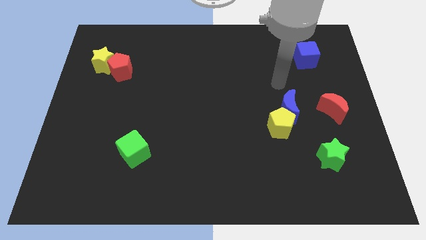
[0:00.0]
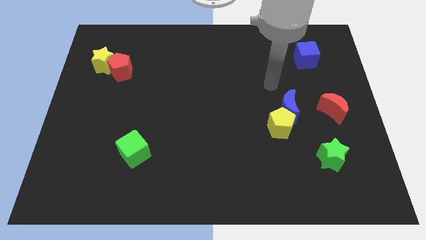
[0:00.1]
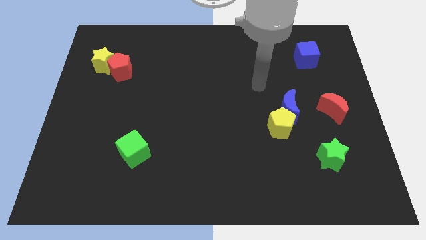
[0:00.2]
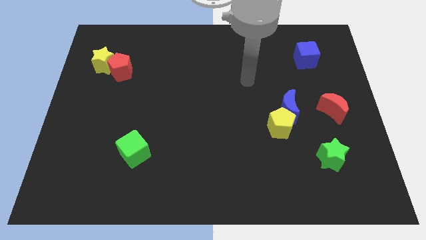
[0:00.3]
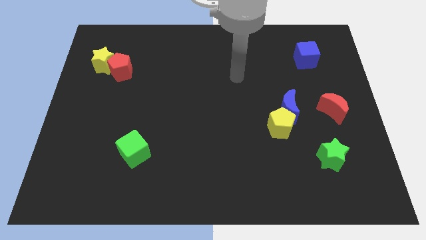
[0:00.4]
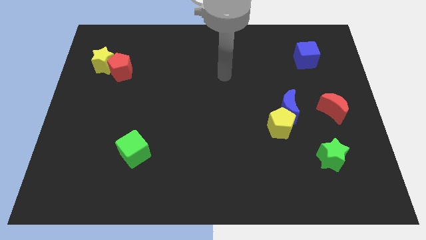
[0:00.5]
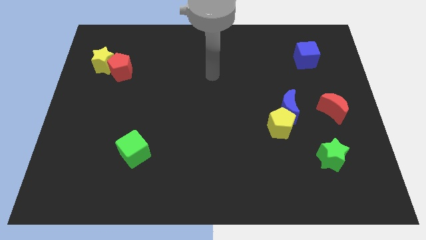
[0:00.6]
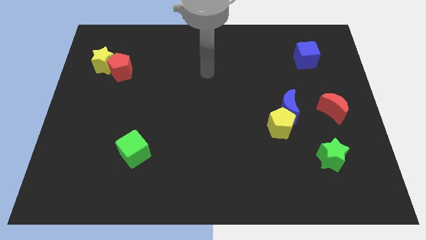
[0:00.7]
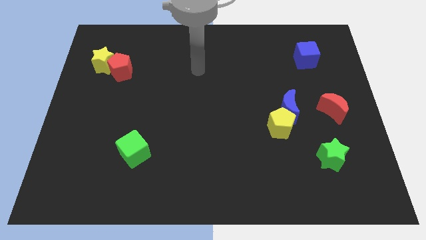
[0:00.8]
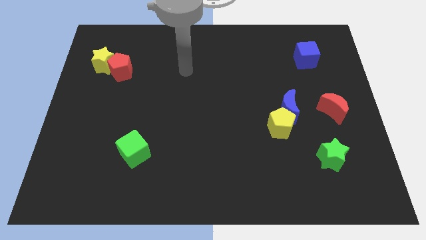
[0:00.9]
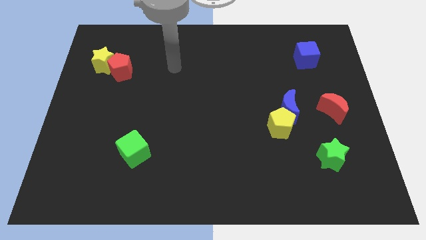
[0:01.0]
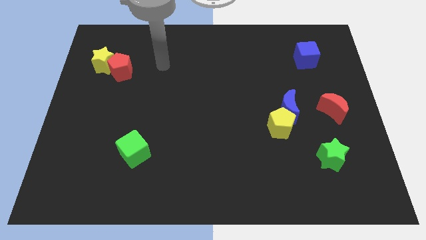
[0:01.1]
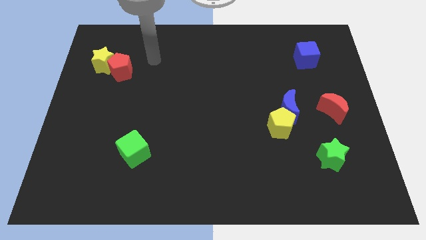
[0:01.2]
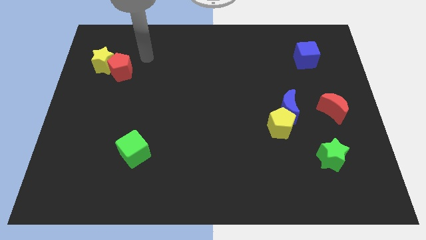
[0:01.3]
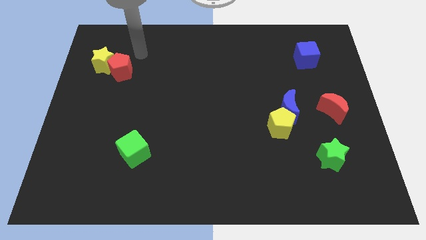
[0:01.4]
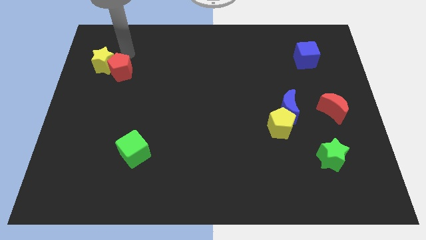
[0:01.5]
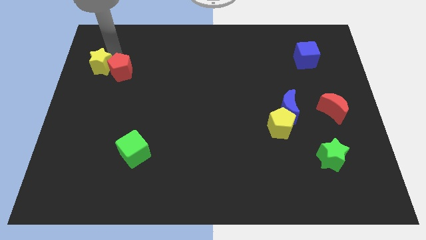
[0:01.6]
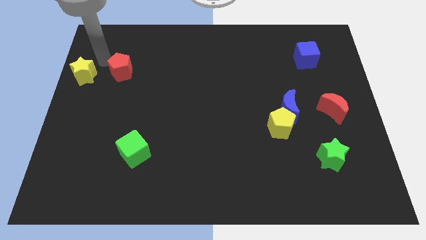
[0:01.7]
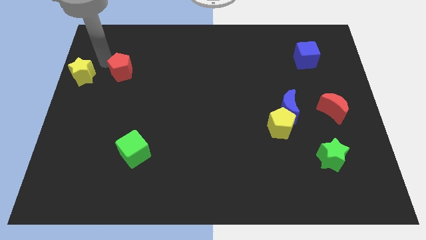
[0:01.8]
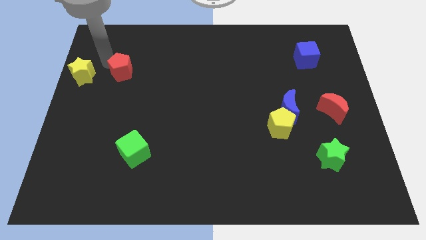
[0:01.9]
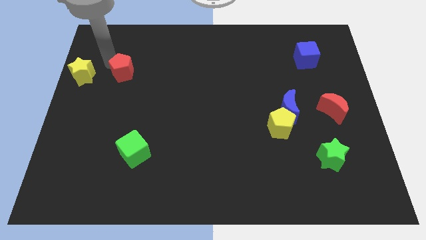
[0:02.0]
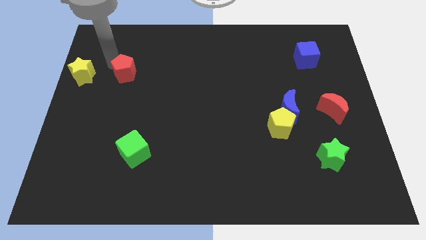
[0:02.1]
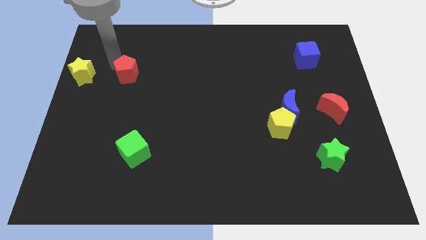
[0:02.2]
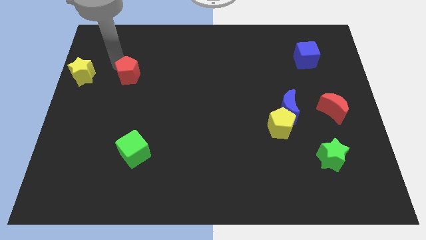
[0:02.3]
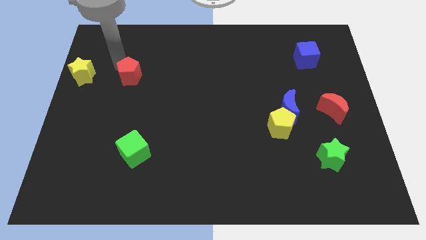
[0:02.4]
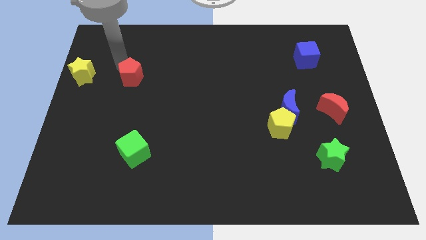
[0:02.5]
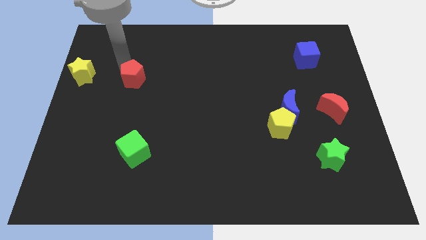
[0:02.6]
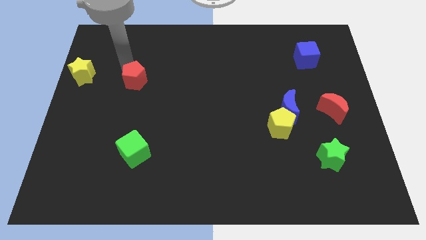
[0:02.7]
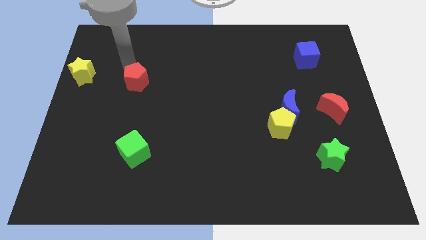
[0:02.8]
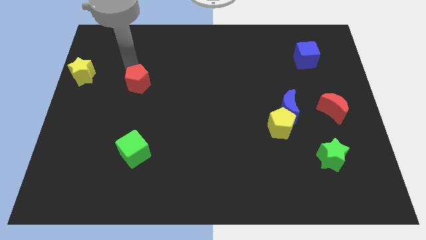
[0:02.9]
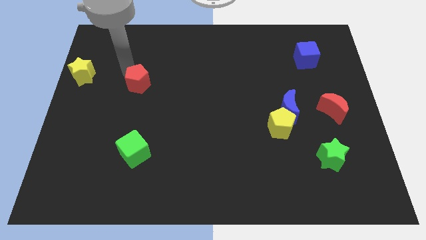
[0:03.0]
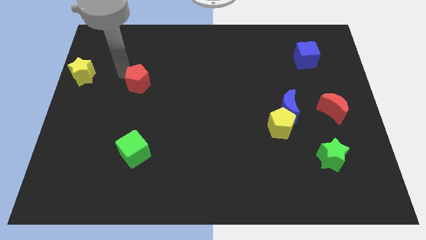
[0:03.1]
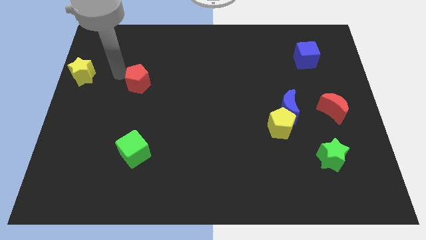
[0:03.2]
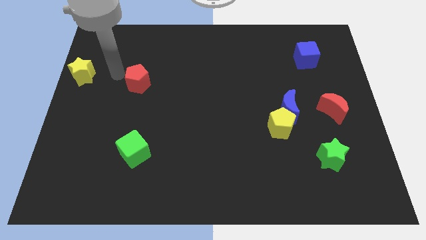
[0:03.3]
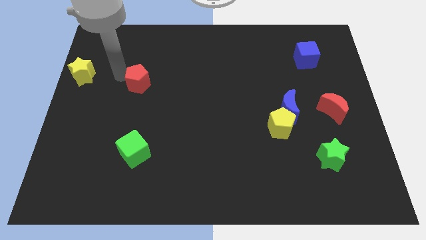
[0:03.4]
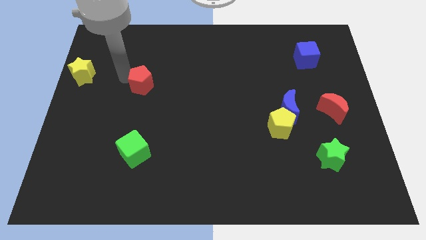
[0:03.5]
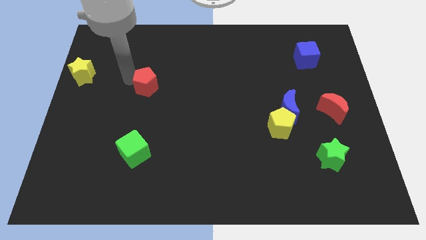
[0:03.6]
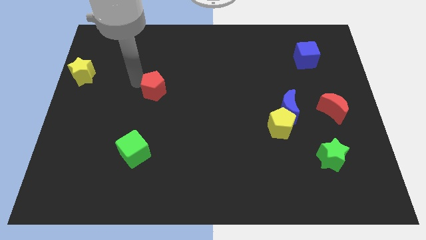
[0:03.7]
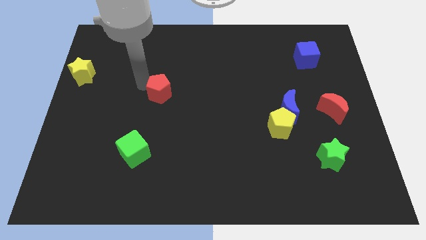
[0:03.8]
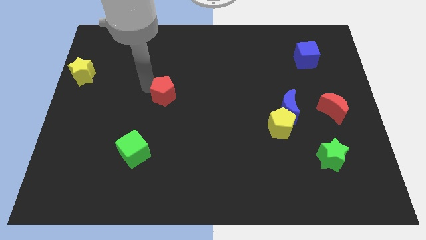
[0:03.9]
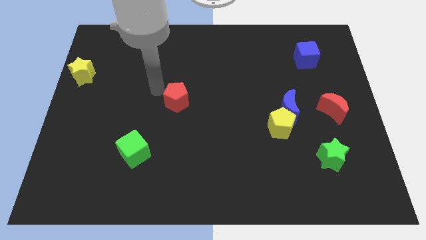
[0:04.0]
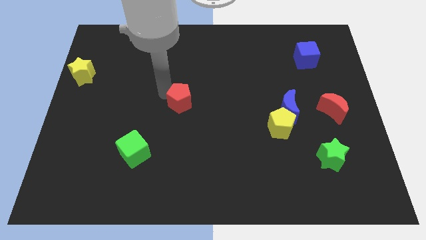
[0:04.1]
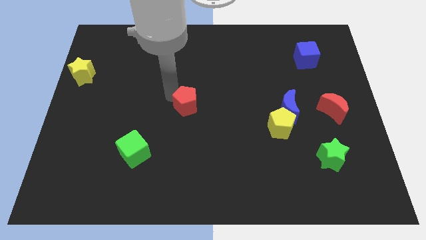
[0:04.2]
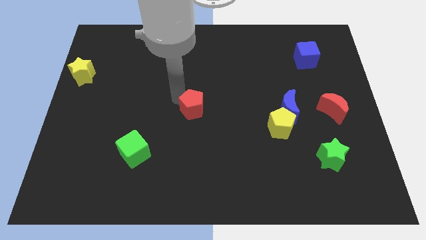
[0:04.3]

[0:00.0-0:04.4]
slide the red pentagon downwards and to the right diagonally

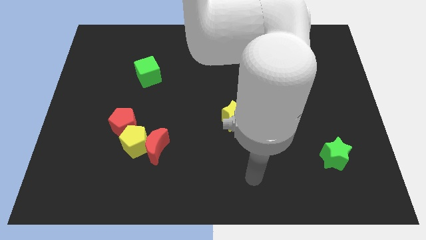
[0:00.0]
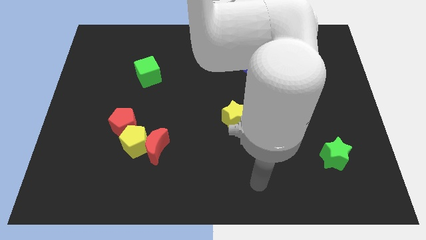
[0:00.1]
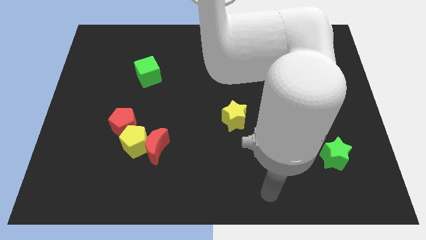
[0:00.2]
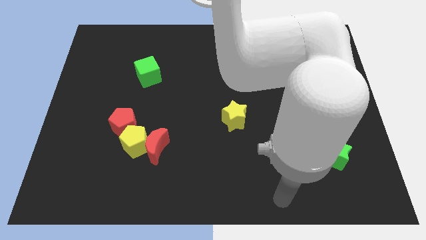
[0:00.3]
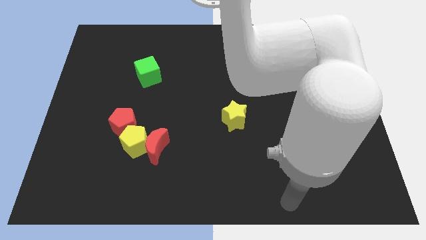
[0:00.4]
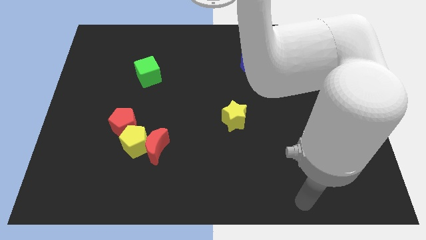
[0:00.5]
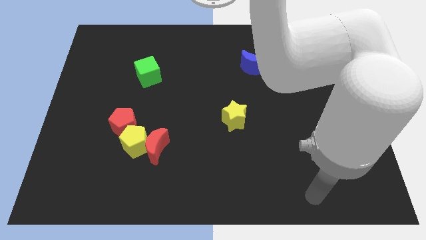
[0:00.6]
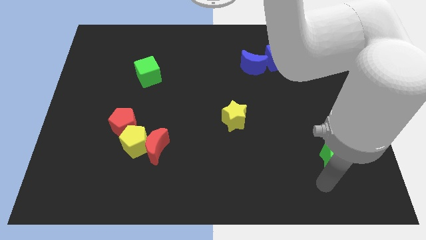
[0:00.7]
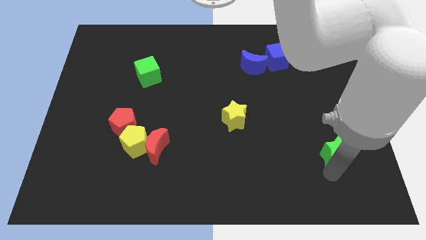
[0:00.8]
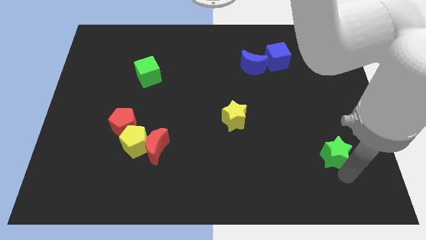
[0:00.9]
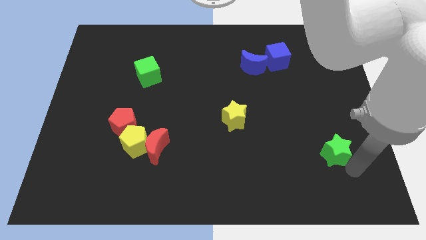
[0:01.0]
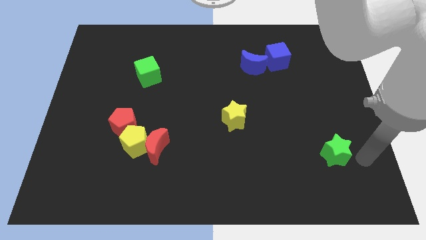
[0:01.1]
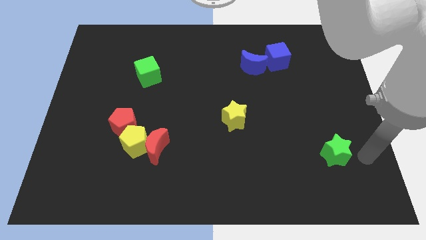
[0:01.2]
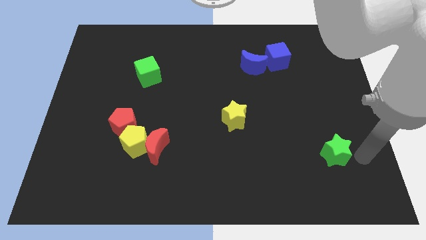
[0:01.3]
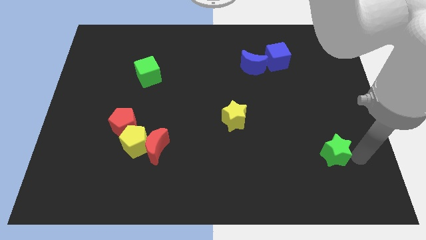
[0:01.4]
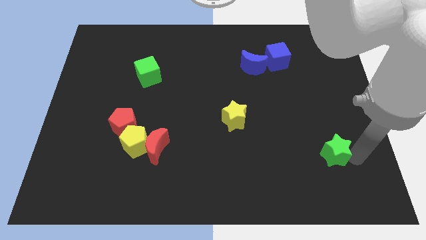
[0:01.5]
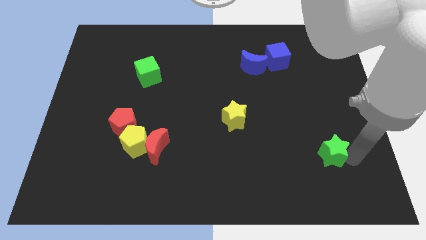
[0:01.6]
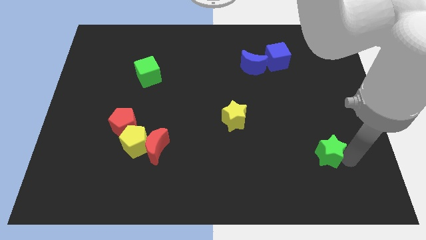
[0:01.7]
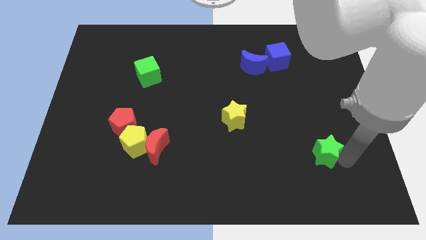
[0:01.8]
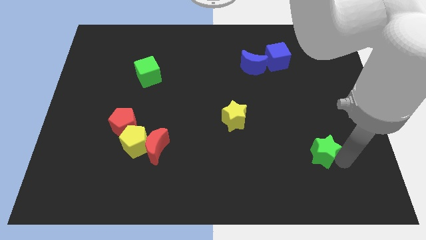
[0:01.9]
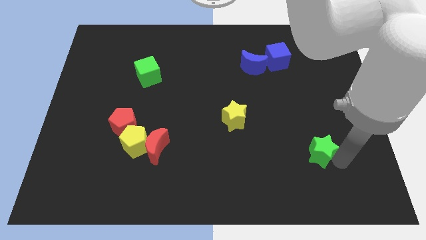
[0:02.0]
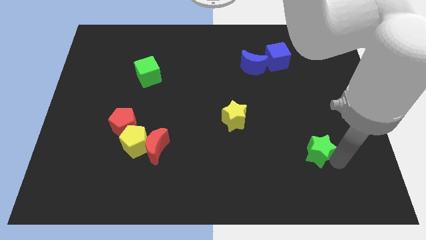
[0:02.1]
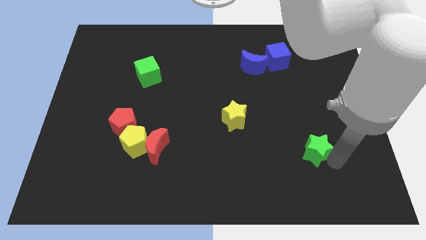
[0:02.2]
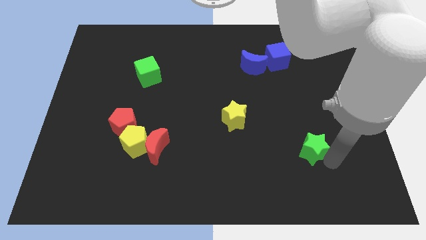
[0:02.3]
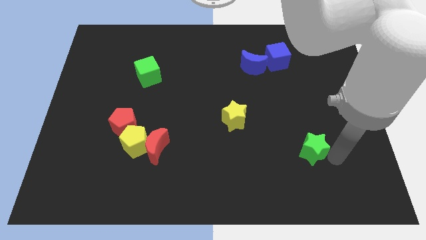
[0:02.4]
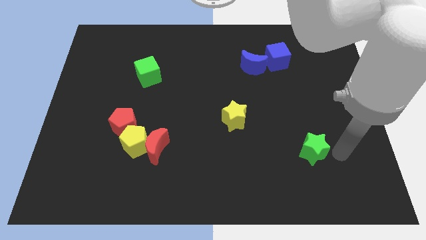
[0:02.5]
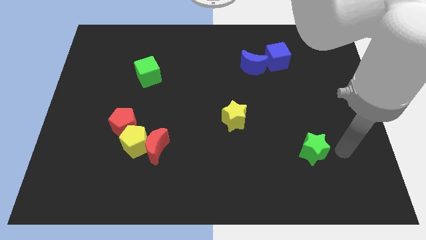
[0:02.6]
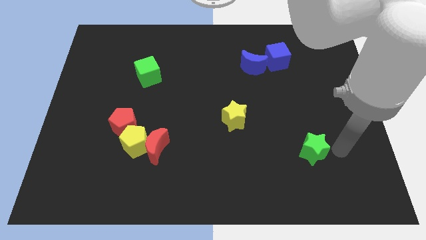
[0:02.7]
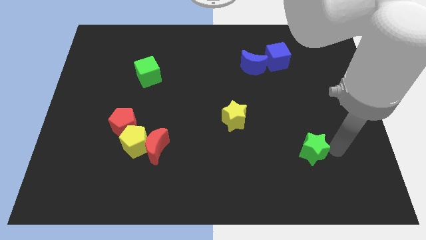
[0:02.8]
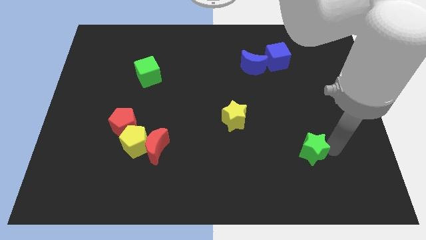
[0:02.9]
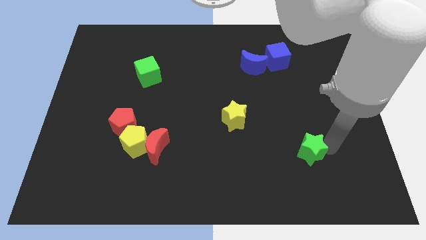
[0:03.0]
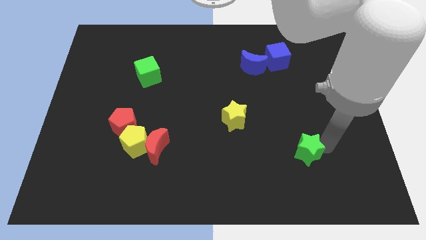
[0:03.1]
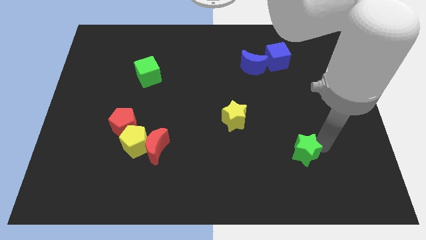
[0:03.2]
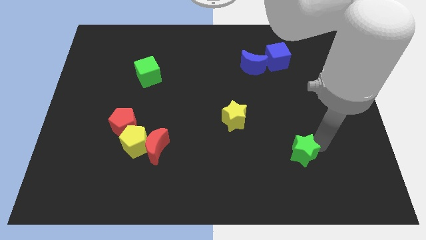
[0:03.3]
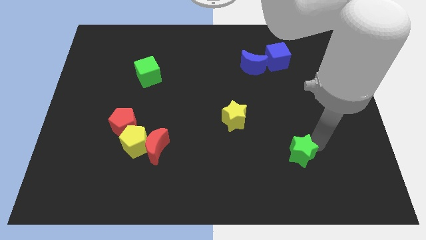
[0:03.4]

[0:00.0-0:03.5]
slightly move the green star to the left

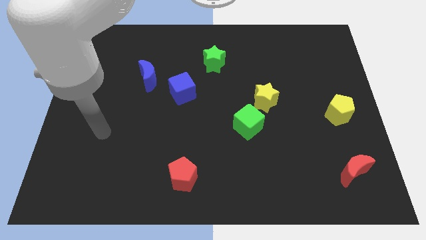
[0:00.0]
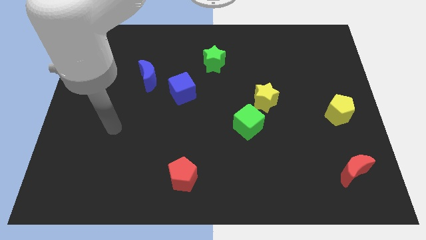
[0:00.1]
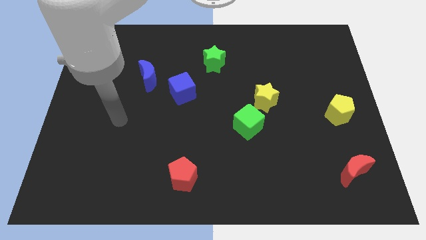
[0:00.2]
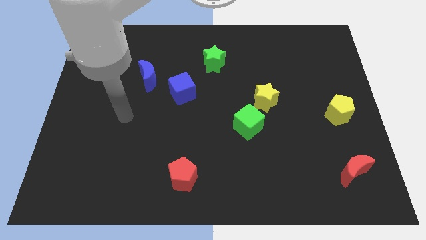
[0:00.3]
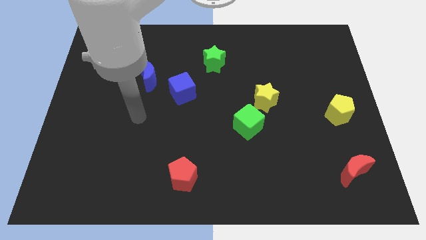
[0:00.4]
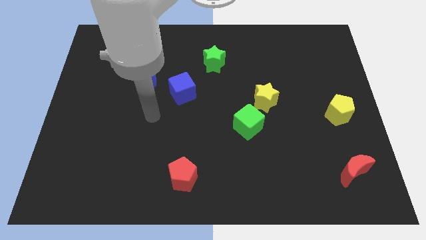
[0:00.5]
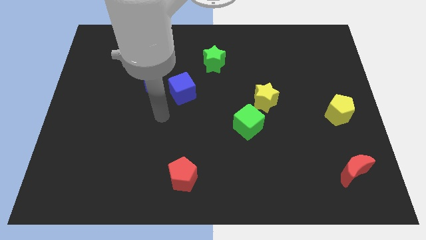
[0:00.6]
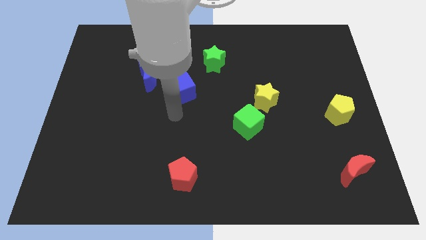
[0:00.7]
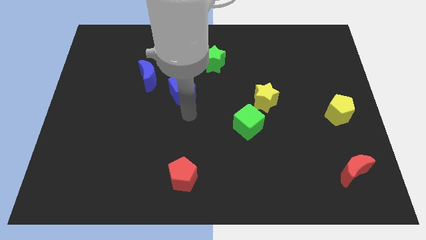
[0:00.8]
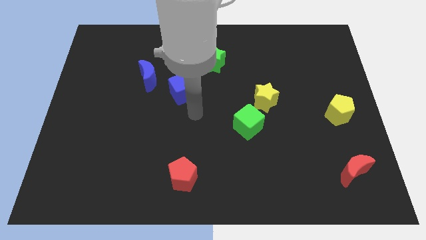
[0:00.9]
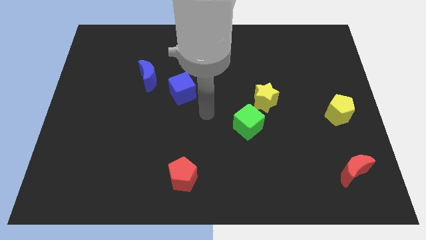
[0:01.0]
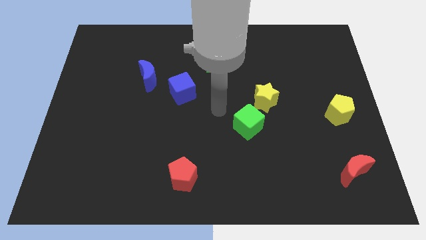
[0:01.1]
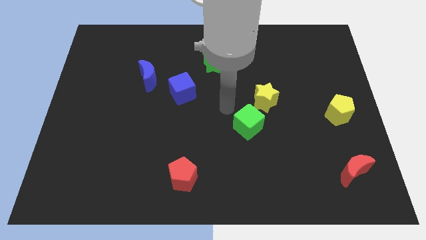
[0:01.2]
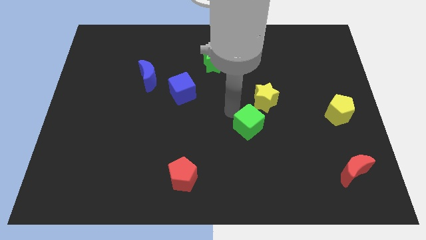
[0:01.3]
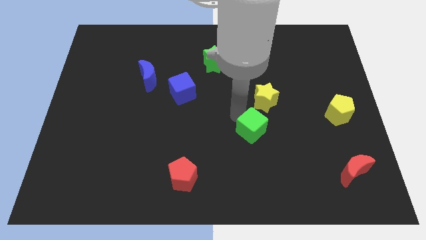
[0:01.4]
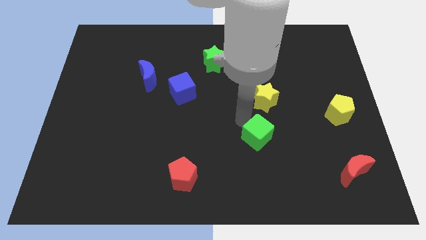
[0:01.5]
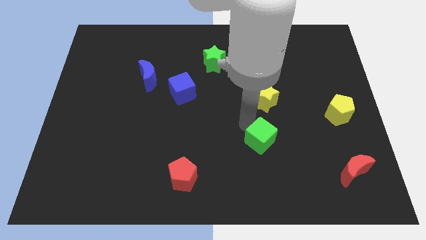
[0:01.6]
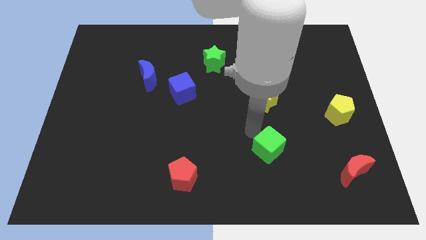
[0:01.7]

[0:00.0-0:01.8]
slide the green cube down and right a bit
